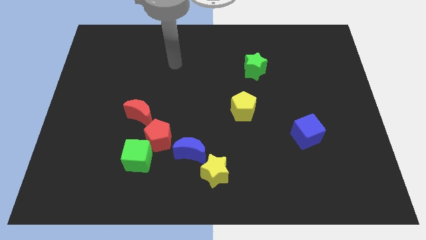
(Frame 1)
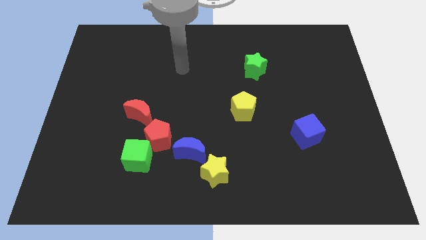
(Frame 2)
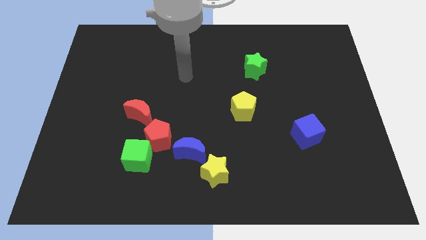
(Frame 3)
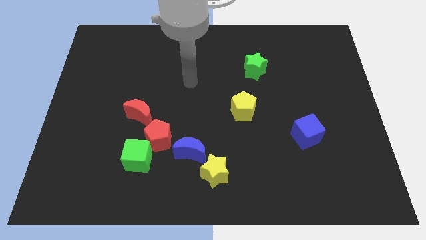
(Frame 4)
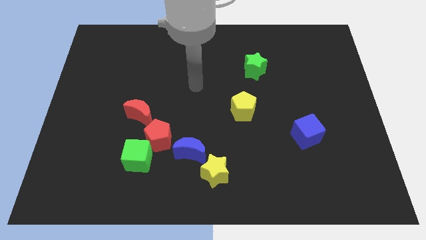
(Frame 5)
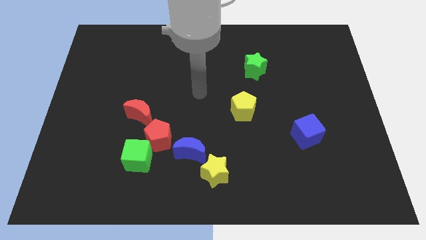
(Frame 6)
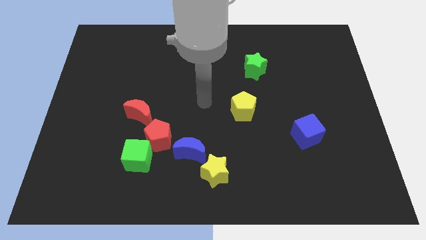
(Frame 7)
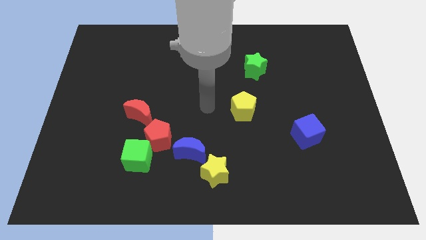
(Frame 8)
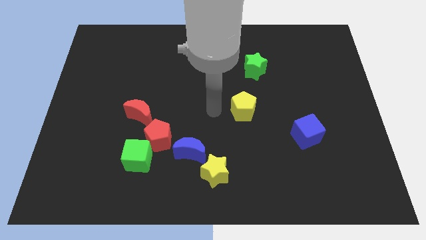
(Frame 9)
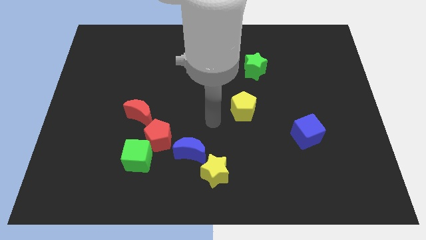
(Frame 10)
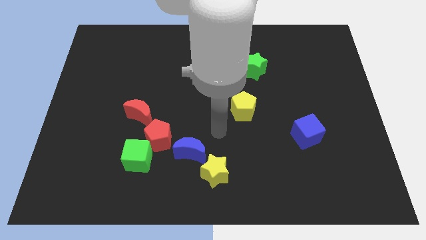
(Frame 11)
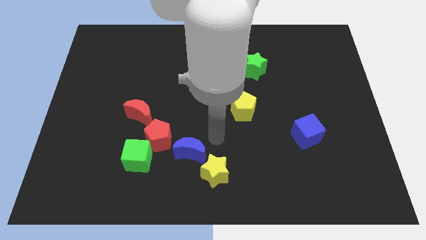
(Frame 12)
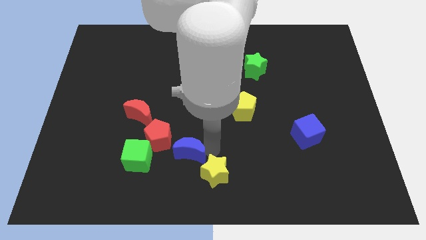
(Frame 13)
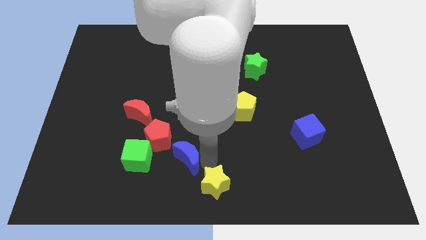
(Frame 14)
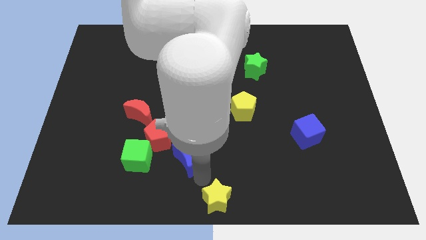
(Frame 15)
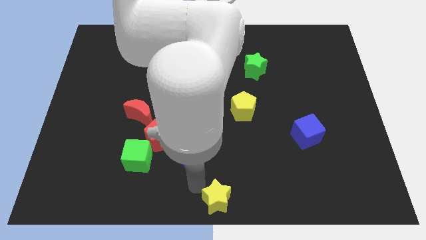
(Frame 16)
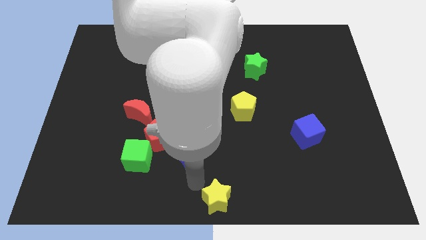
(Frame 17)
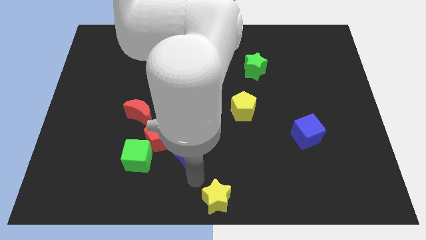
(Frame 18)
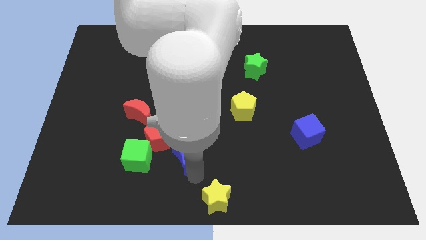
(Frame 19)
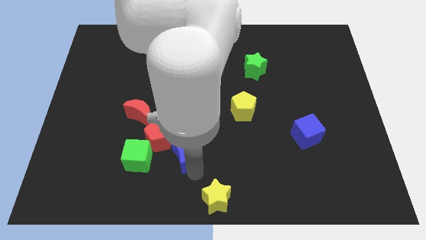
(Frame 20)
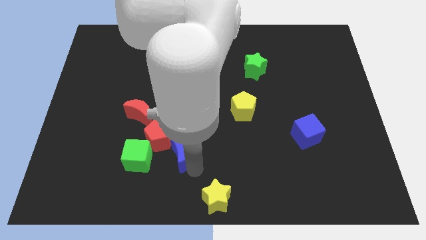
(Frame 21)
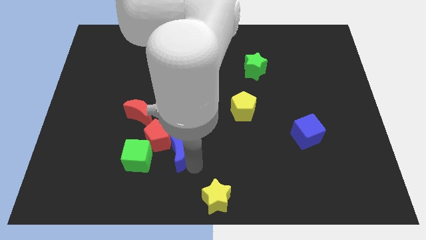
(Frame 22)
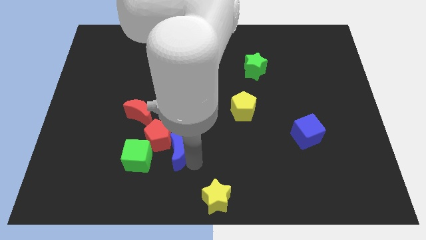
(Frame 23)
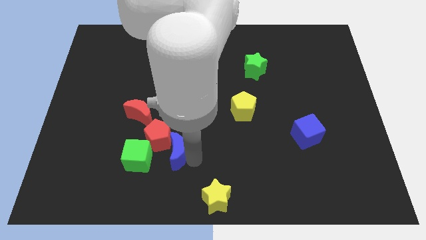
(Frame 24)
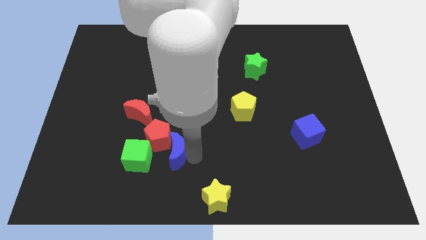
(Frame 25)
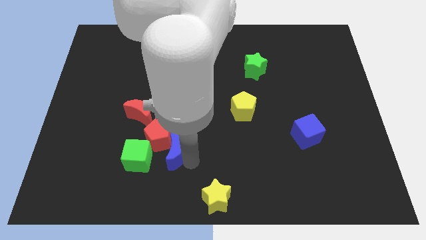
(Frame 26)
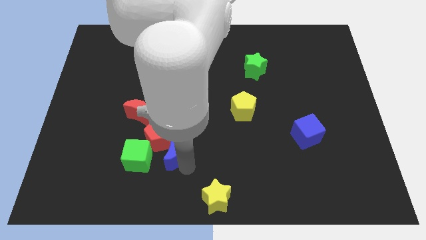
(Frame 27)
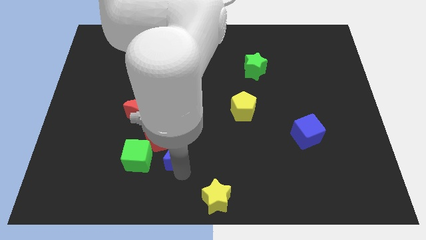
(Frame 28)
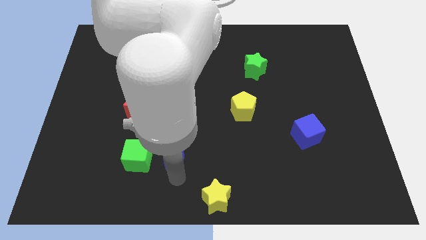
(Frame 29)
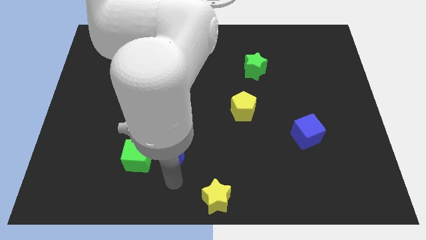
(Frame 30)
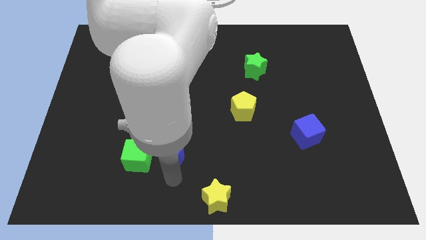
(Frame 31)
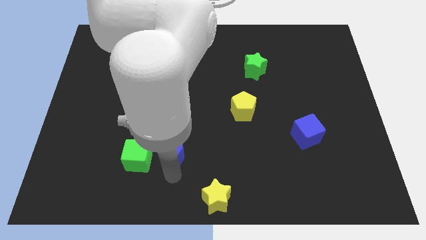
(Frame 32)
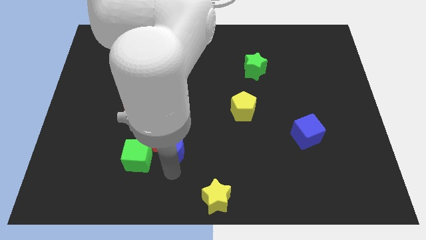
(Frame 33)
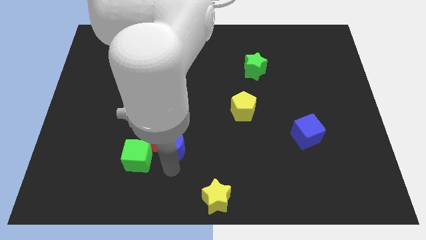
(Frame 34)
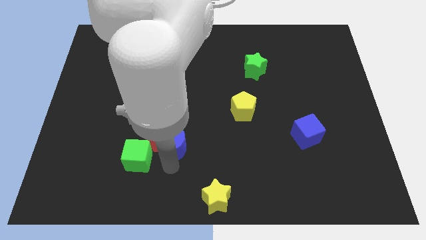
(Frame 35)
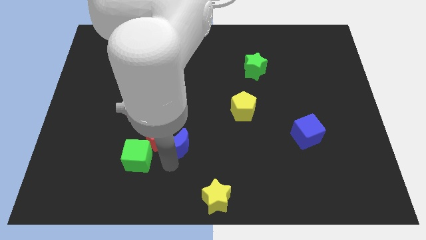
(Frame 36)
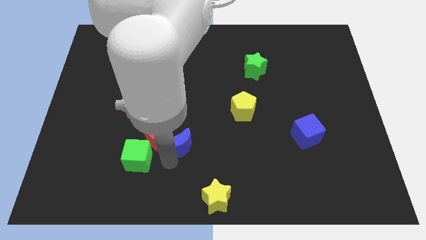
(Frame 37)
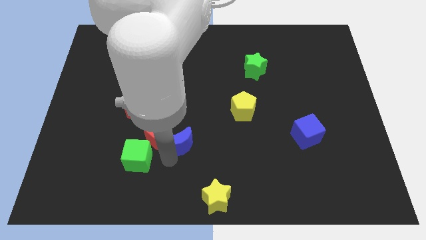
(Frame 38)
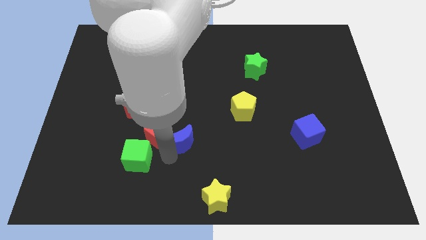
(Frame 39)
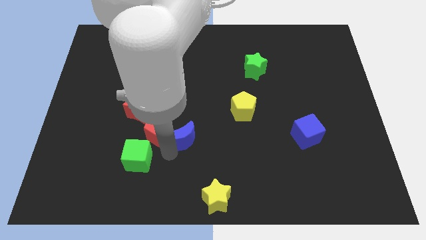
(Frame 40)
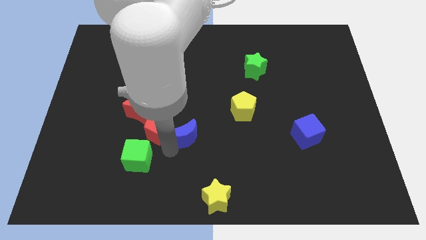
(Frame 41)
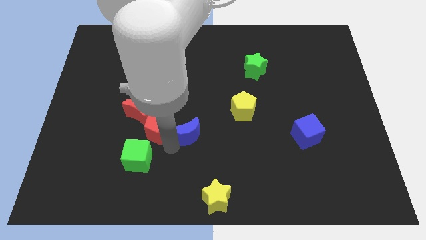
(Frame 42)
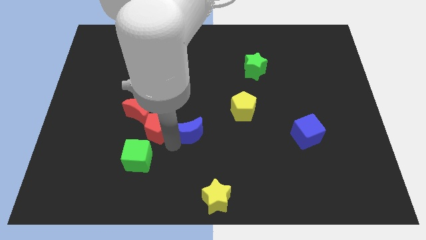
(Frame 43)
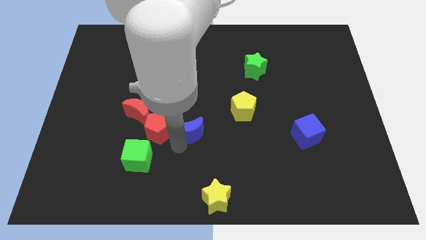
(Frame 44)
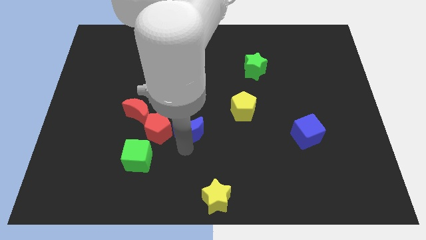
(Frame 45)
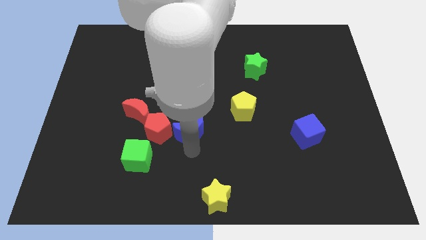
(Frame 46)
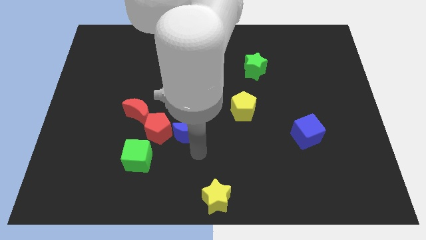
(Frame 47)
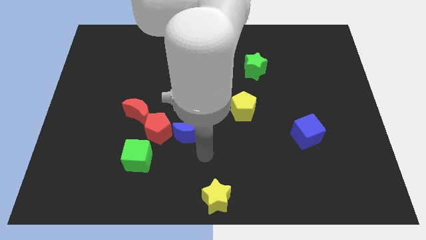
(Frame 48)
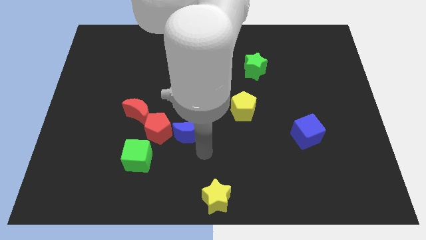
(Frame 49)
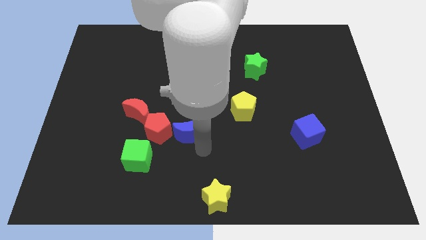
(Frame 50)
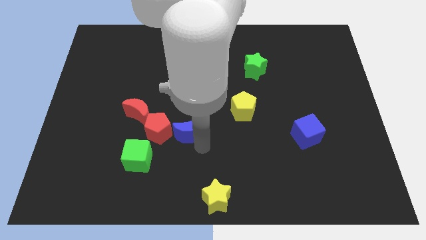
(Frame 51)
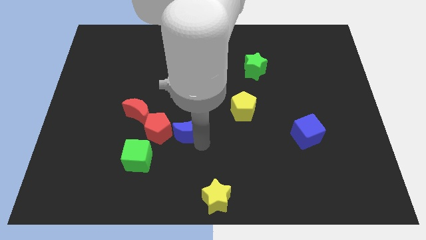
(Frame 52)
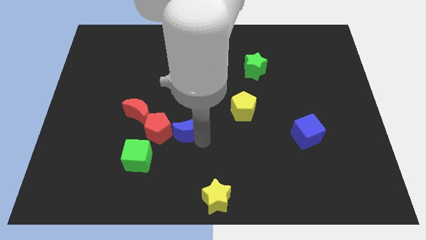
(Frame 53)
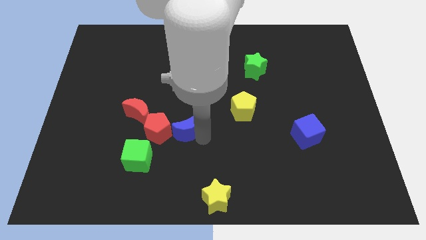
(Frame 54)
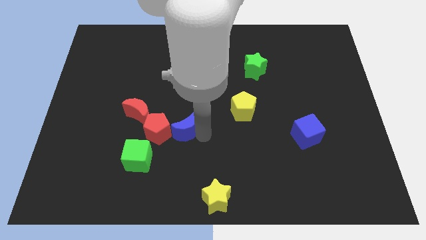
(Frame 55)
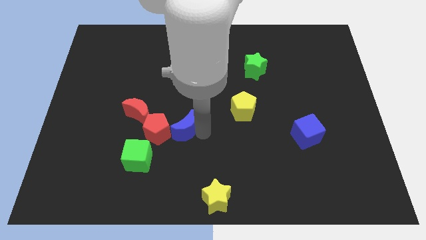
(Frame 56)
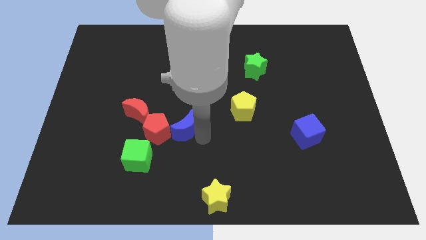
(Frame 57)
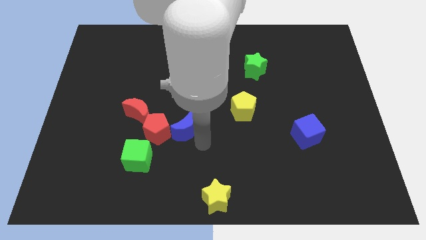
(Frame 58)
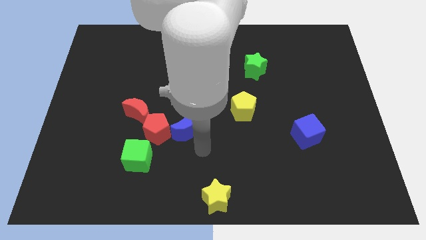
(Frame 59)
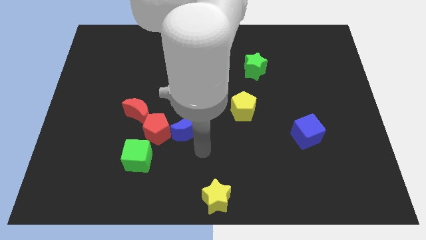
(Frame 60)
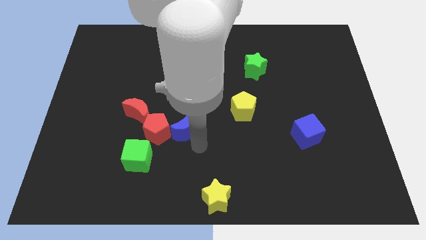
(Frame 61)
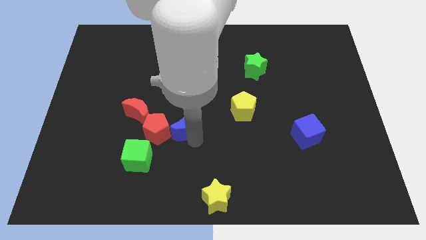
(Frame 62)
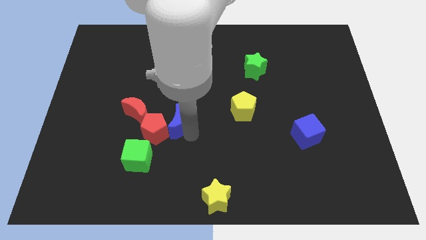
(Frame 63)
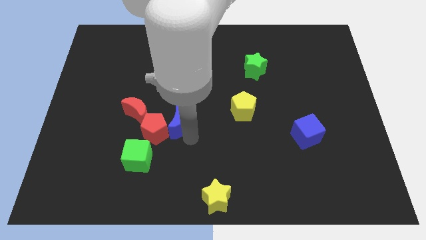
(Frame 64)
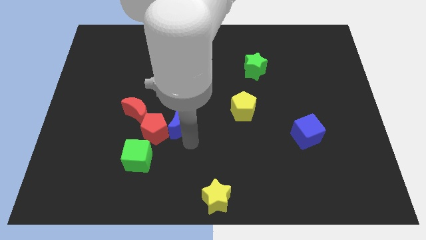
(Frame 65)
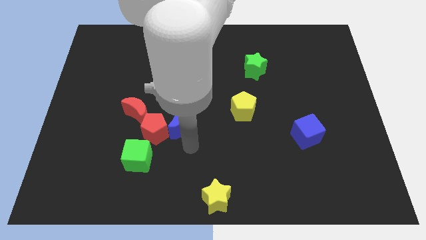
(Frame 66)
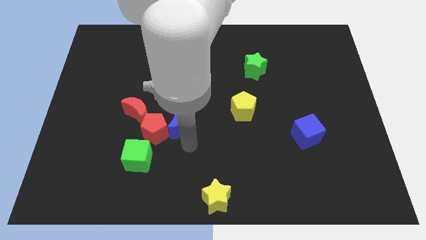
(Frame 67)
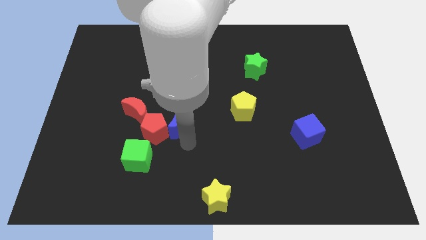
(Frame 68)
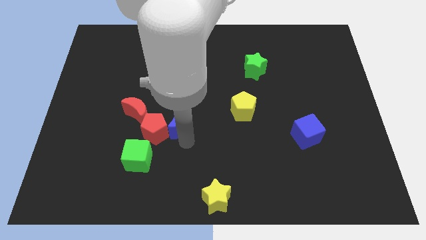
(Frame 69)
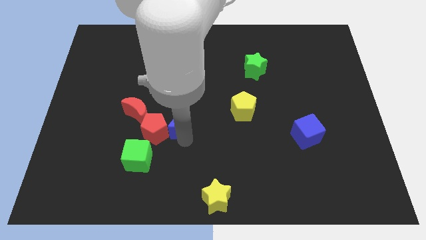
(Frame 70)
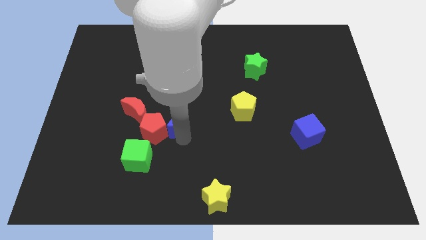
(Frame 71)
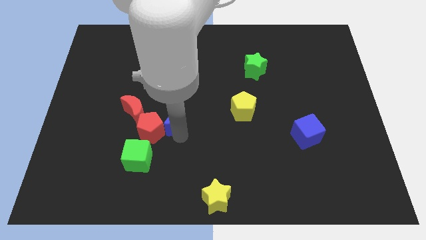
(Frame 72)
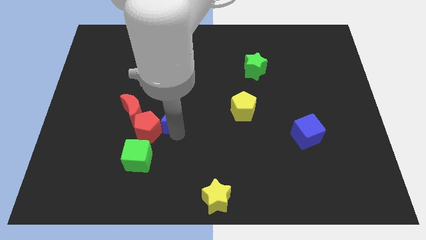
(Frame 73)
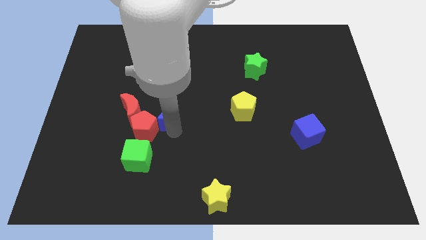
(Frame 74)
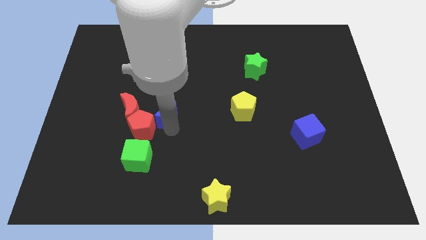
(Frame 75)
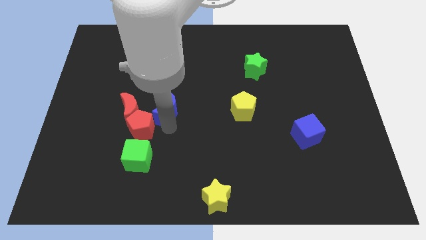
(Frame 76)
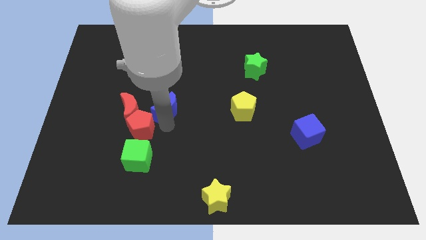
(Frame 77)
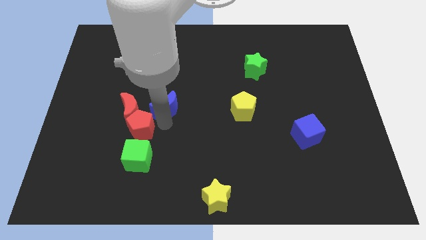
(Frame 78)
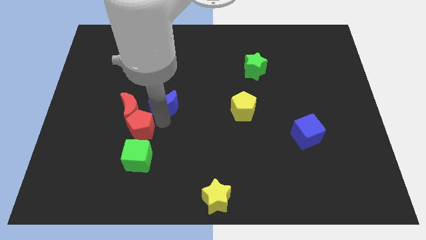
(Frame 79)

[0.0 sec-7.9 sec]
move the blue moon diagonally up and to the right of the red moon
